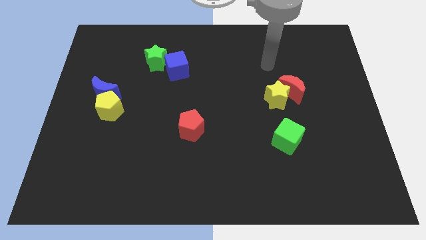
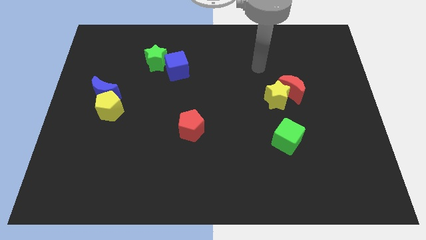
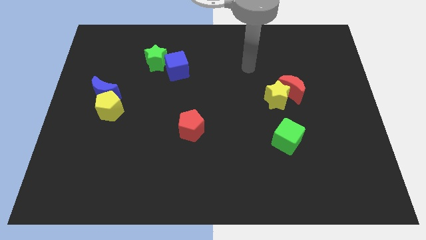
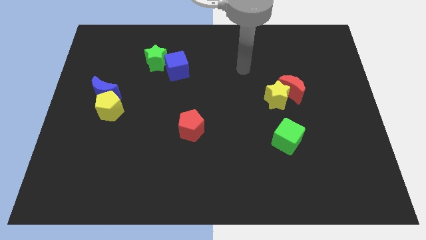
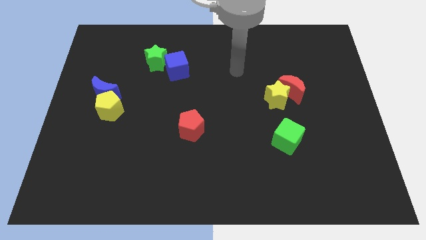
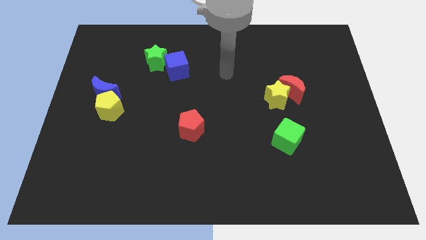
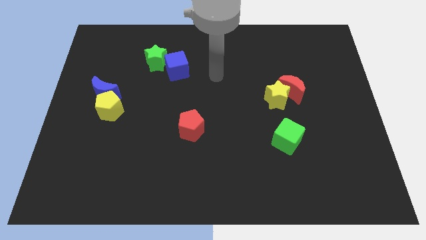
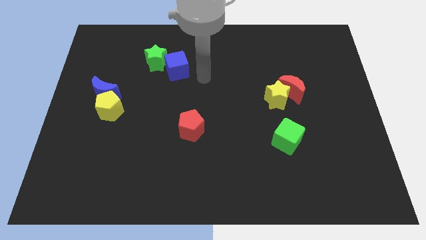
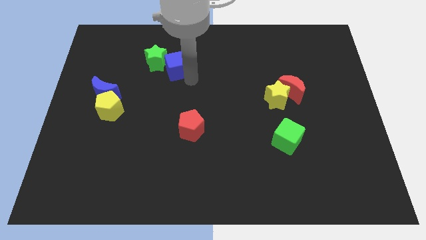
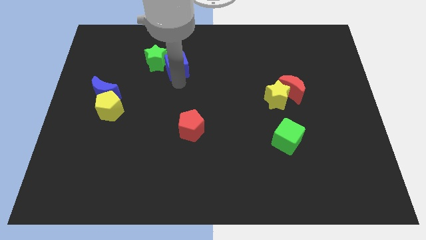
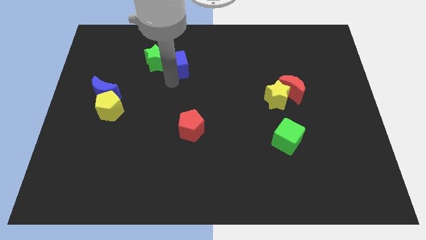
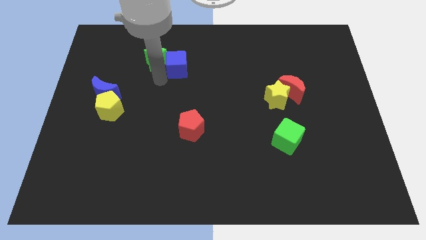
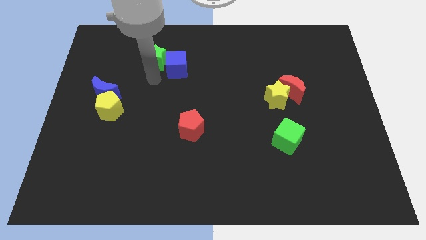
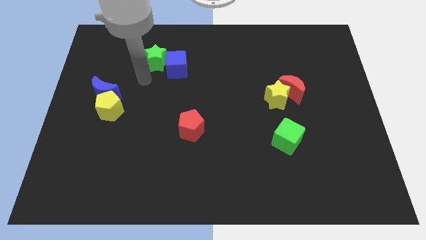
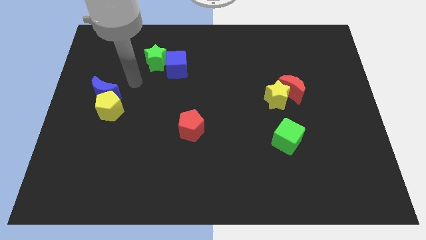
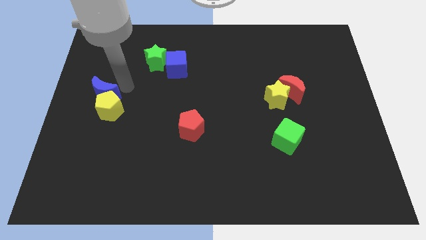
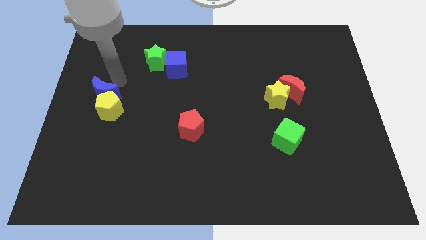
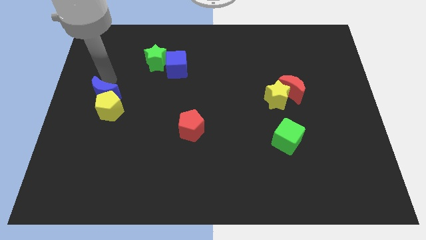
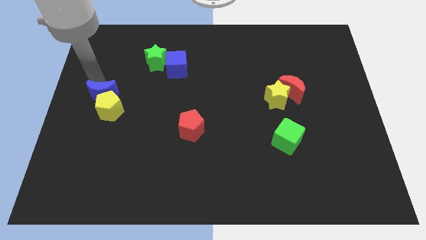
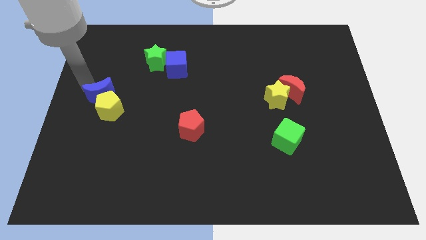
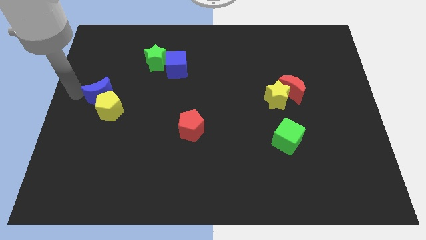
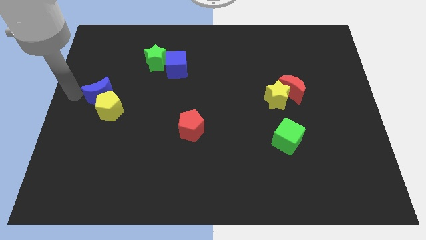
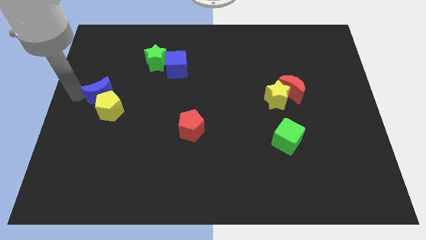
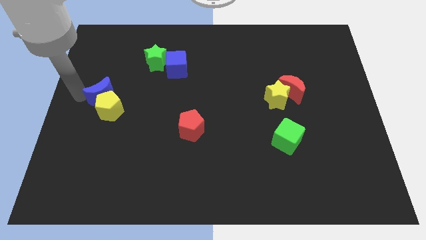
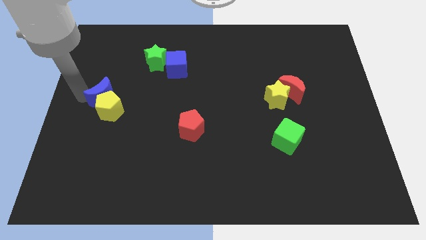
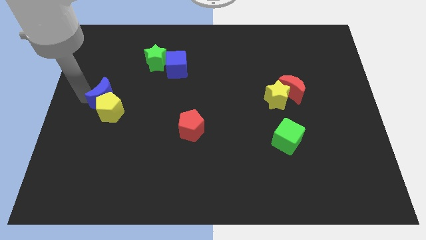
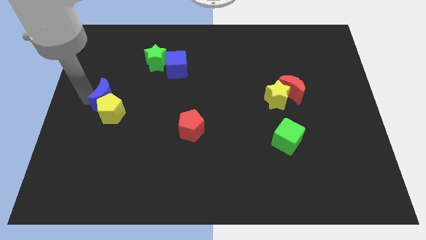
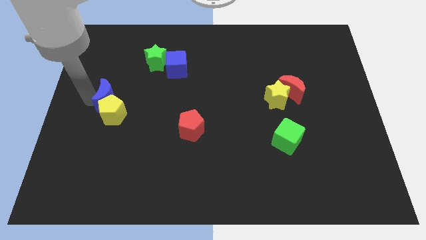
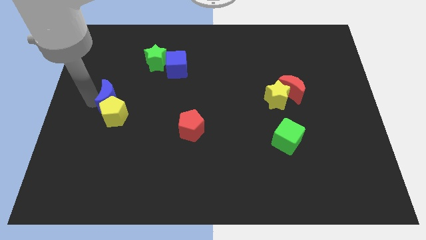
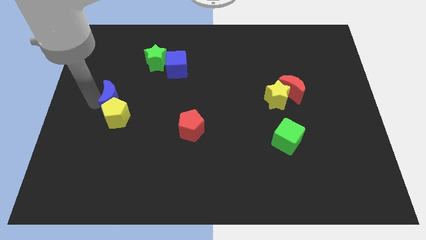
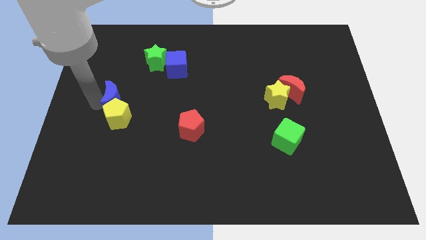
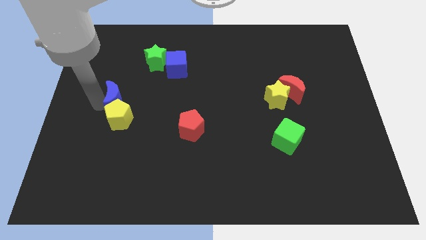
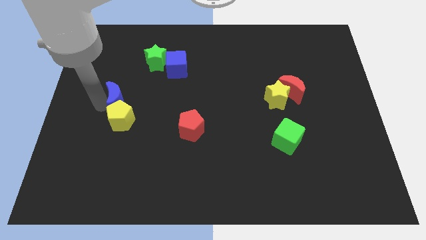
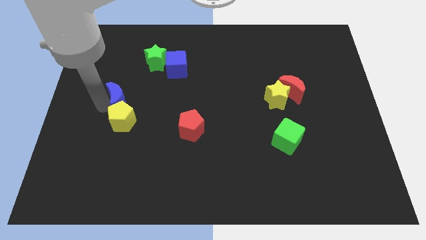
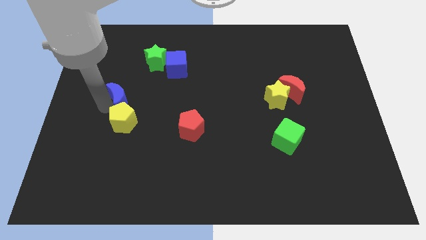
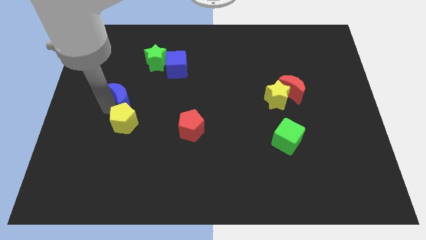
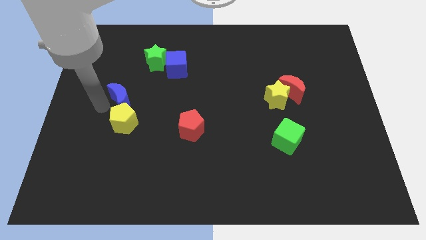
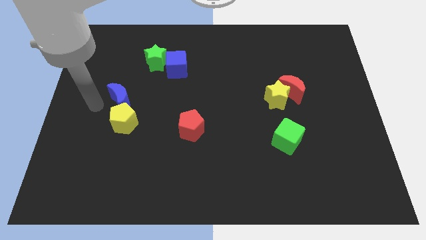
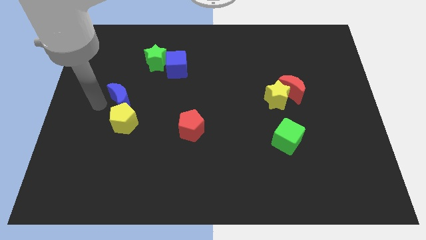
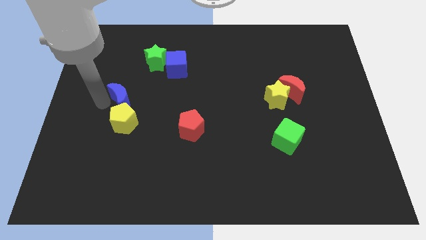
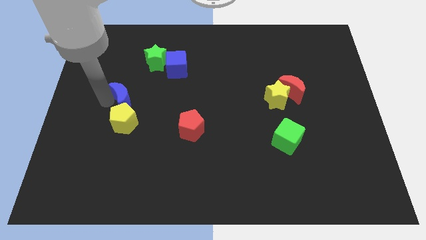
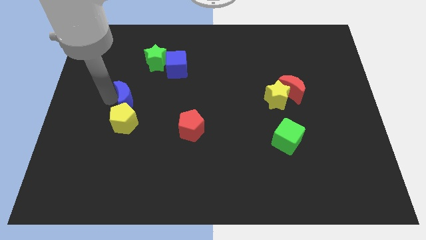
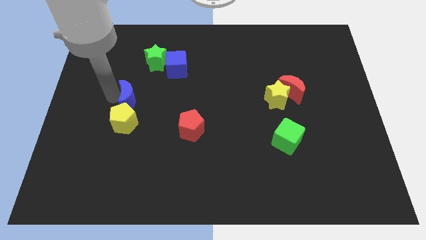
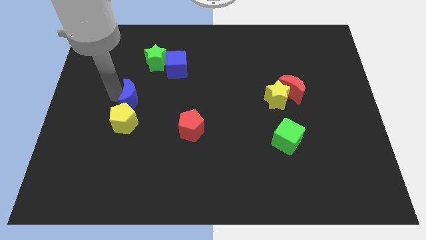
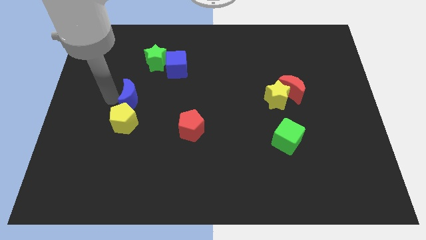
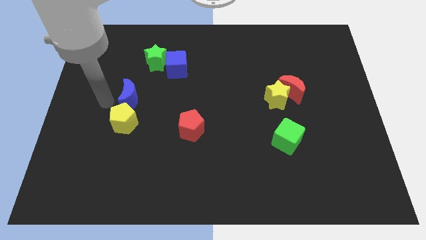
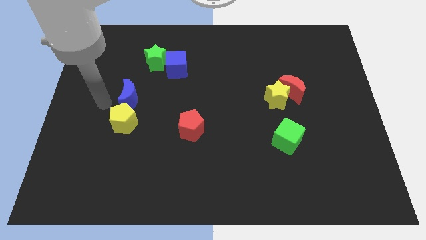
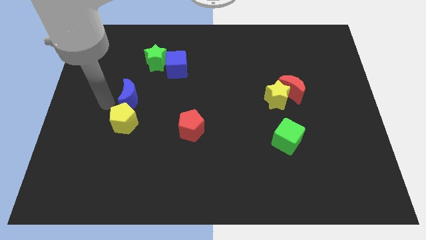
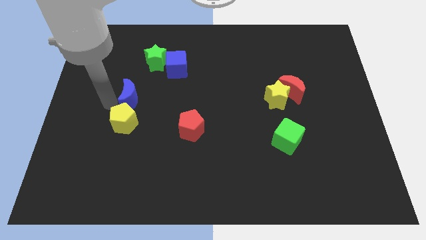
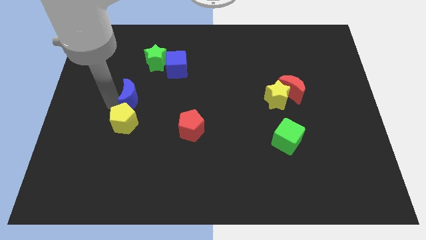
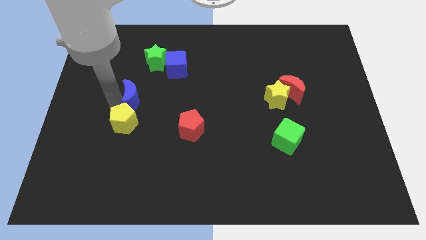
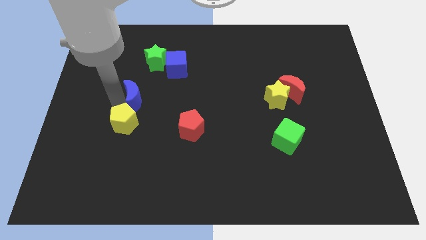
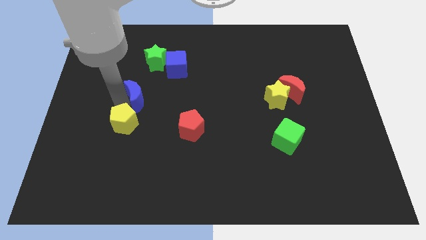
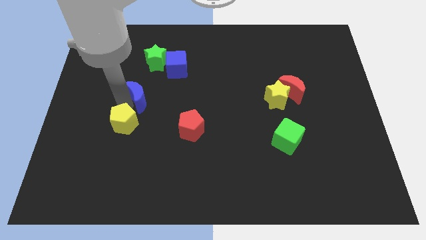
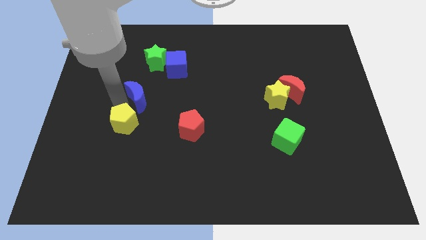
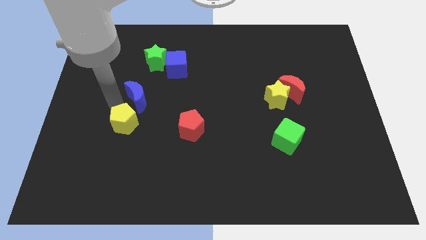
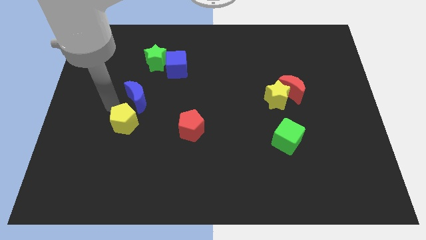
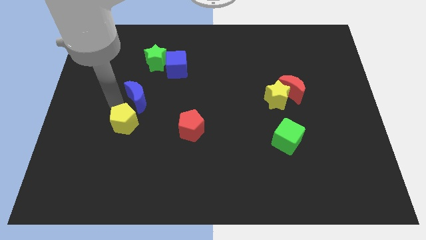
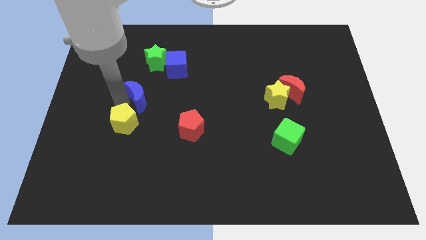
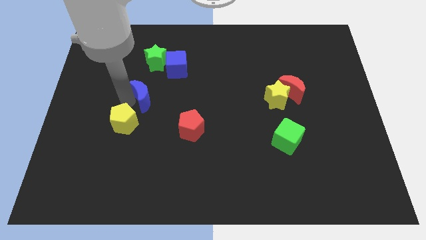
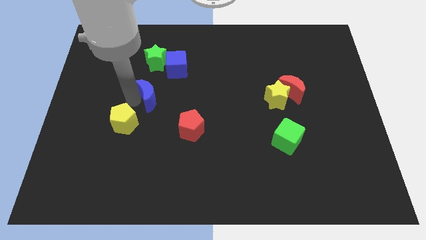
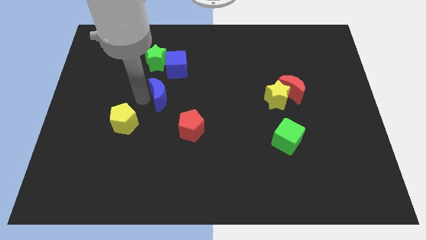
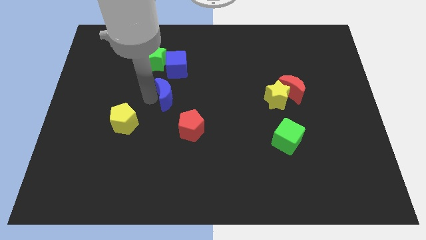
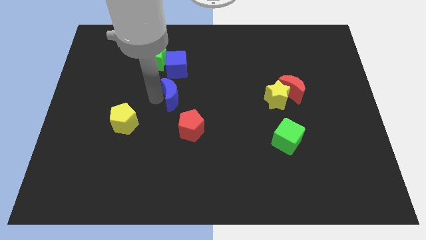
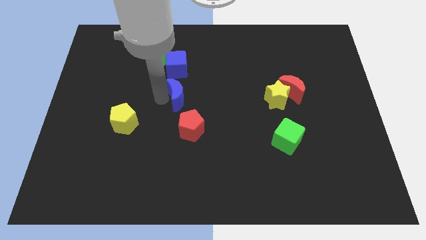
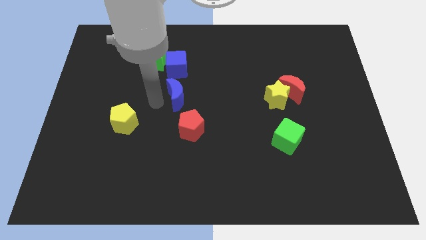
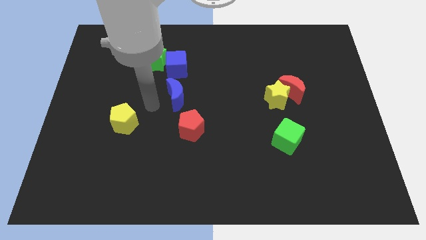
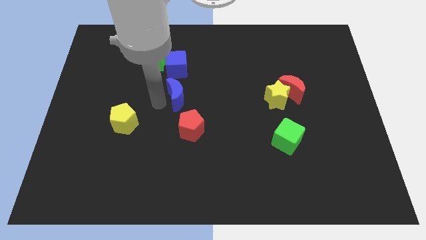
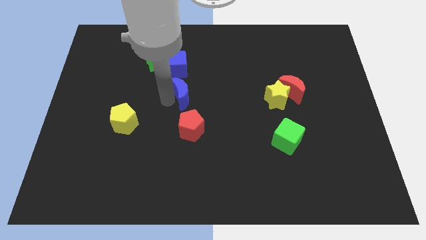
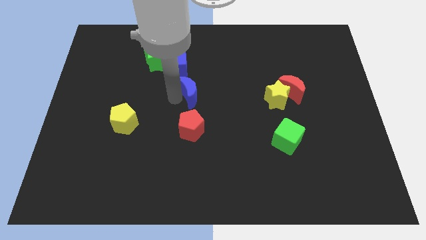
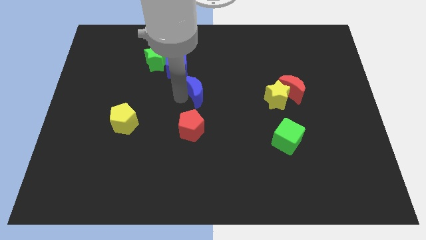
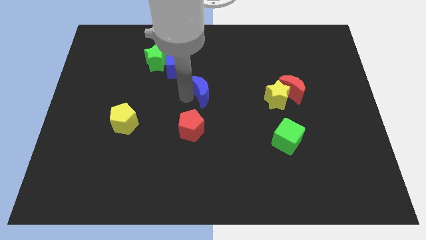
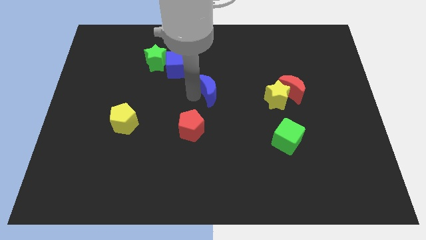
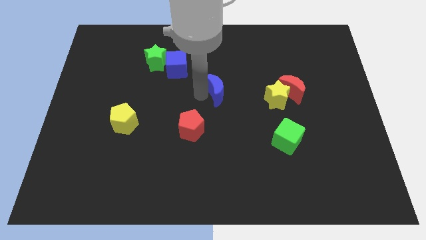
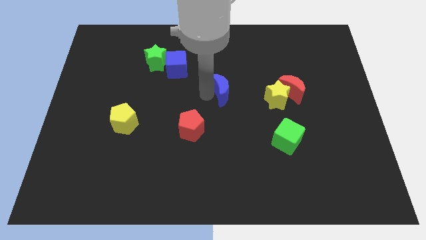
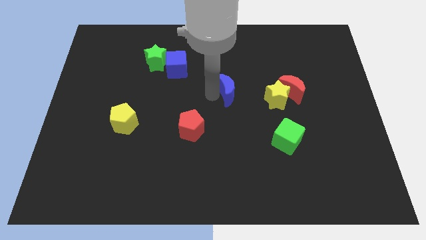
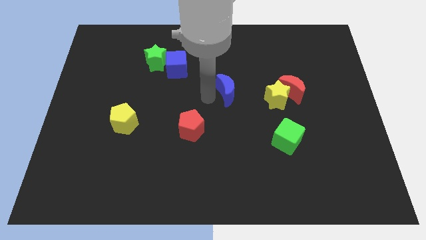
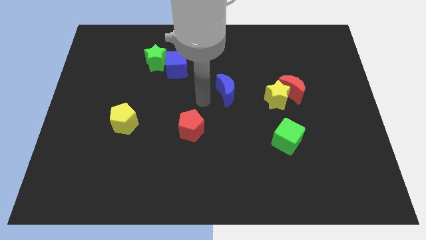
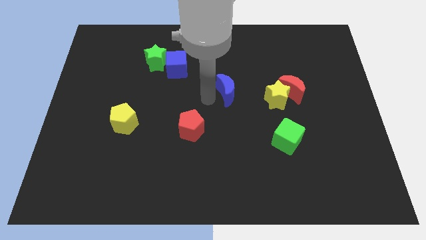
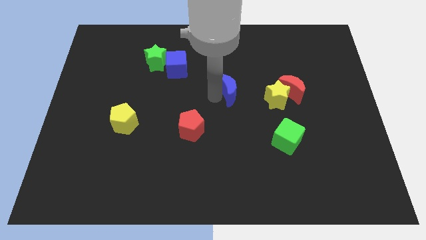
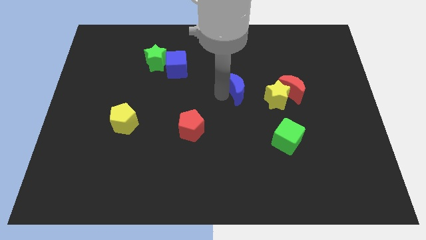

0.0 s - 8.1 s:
slide the blue moon to the top left of the yellow star
